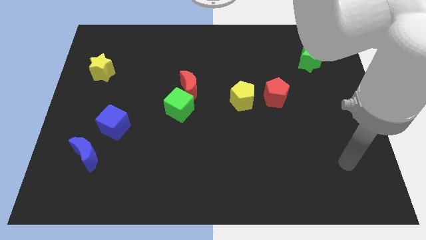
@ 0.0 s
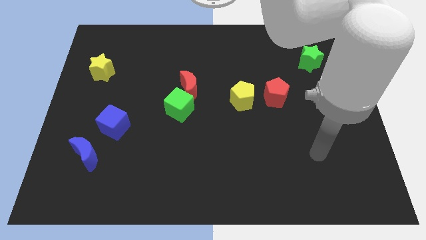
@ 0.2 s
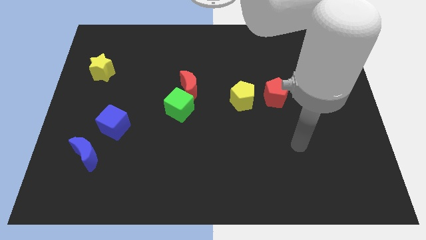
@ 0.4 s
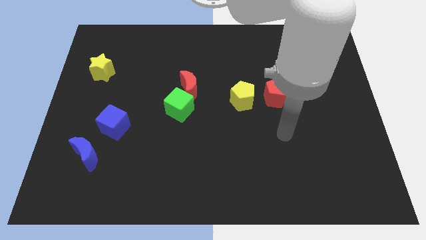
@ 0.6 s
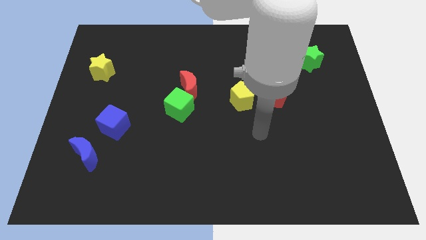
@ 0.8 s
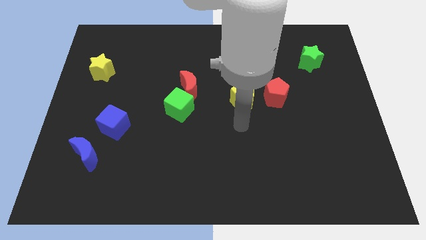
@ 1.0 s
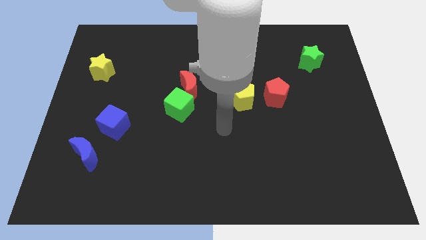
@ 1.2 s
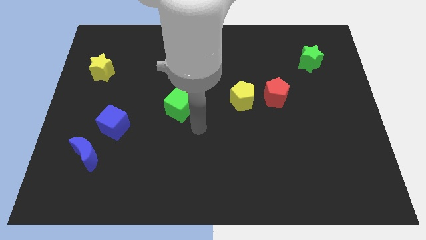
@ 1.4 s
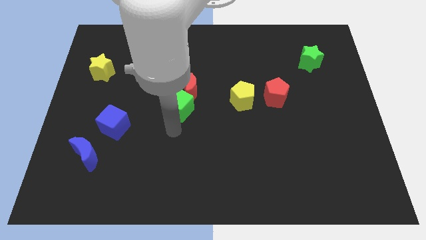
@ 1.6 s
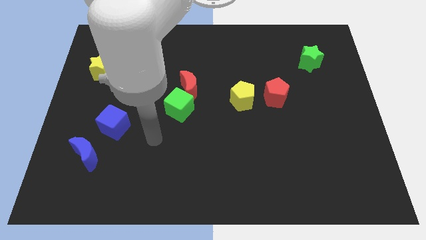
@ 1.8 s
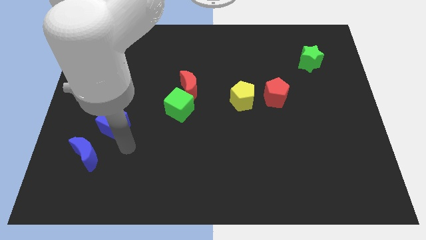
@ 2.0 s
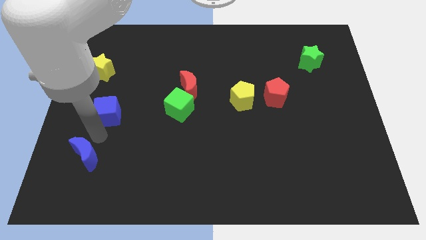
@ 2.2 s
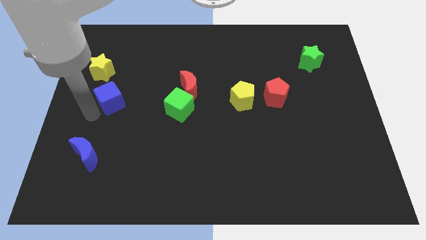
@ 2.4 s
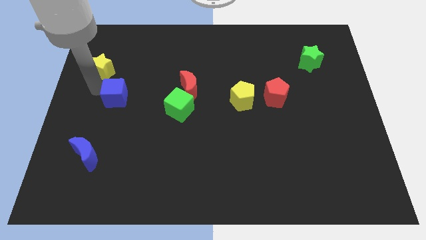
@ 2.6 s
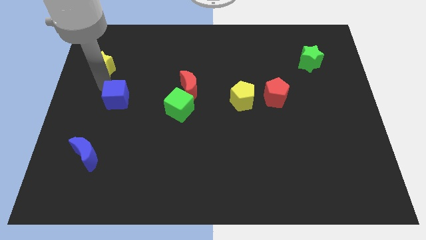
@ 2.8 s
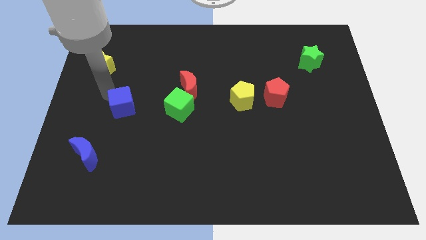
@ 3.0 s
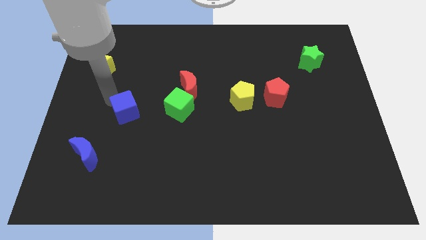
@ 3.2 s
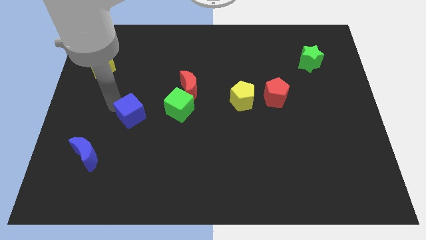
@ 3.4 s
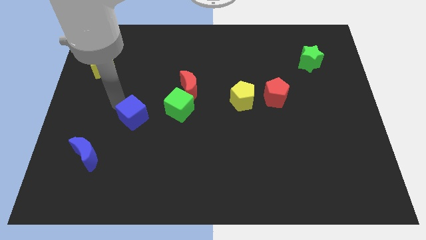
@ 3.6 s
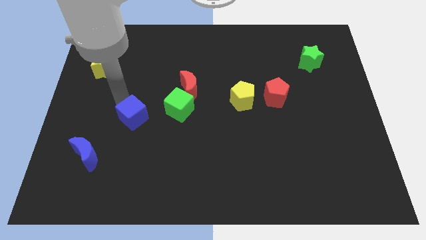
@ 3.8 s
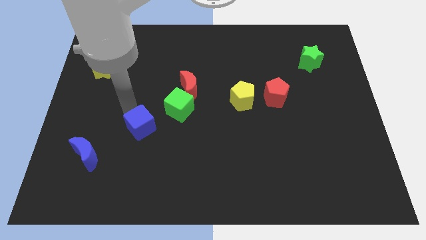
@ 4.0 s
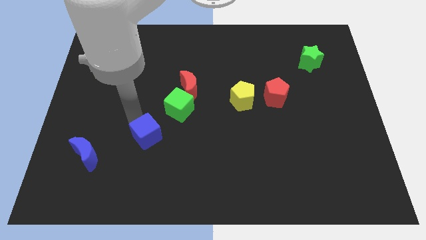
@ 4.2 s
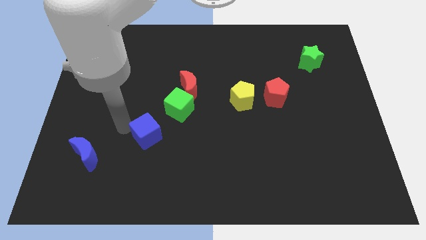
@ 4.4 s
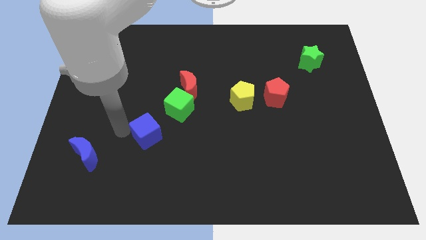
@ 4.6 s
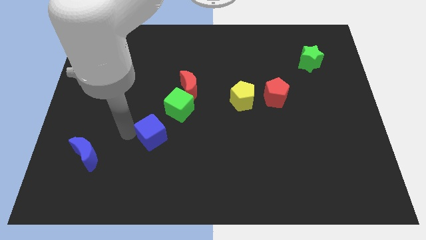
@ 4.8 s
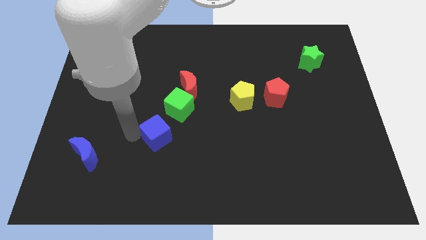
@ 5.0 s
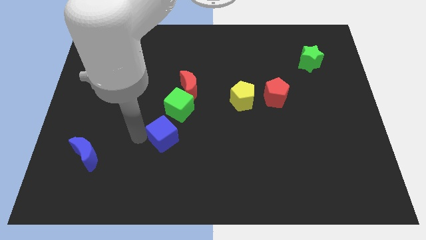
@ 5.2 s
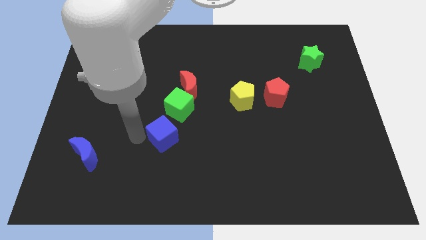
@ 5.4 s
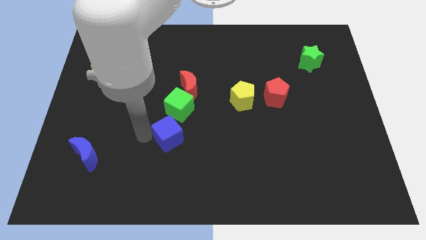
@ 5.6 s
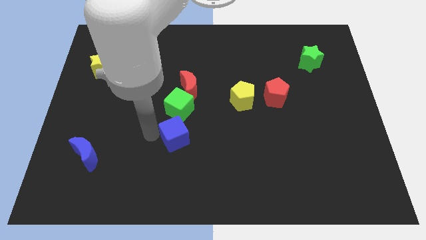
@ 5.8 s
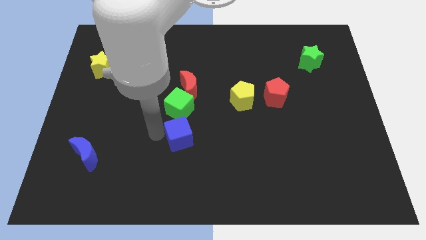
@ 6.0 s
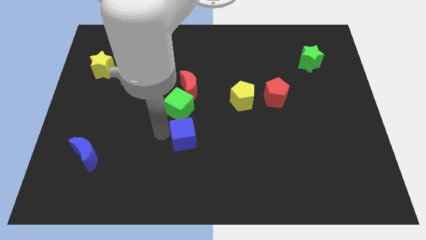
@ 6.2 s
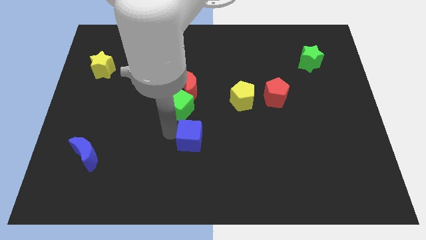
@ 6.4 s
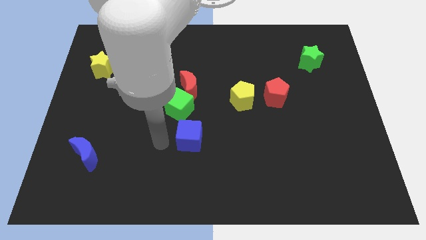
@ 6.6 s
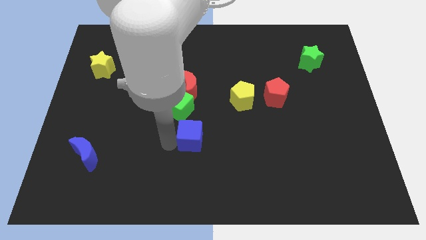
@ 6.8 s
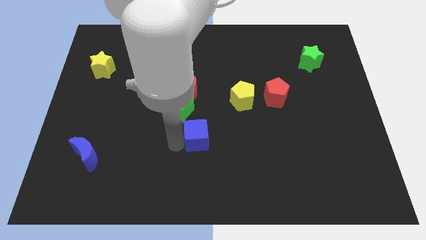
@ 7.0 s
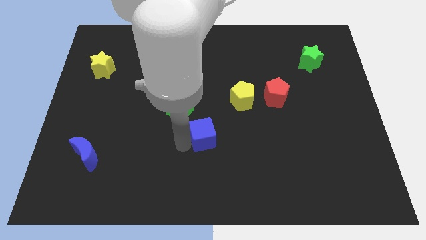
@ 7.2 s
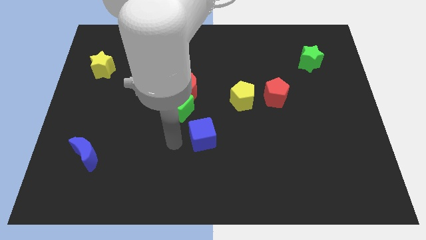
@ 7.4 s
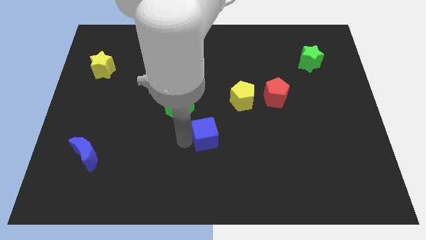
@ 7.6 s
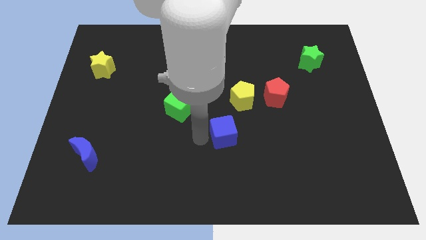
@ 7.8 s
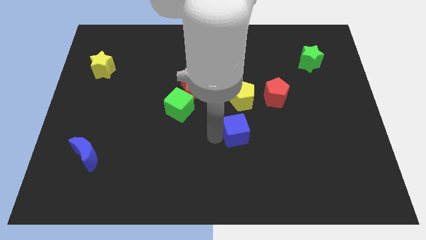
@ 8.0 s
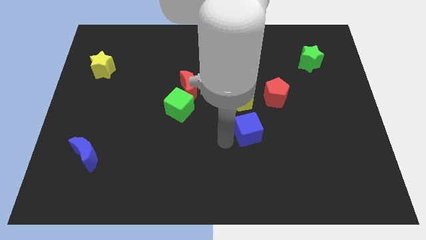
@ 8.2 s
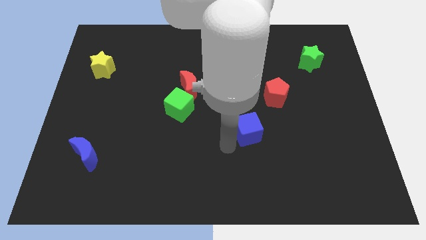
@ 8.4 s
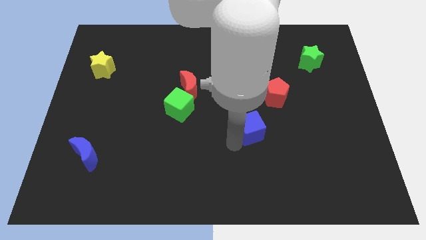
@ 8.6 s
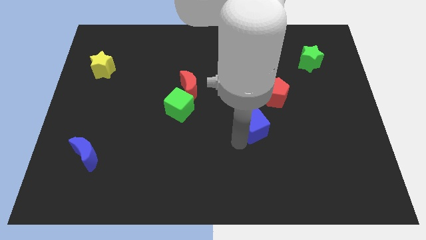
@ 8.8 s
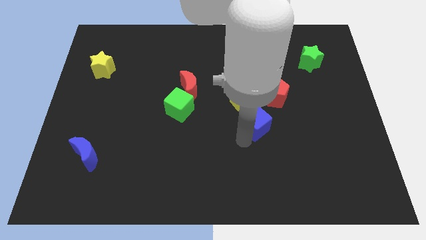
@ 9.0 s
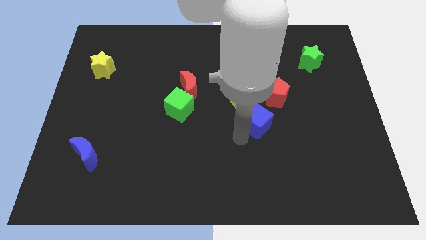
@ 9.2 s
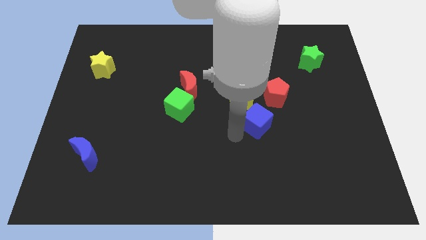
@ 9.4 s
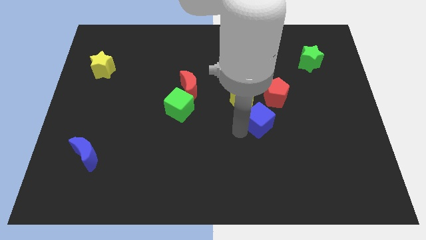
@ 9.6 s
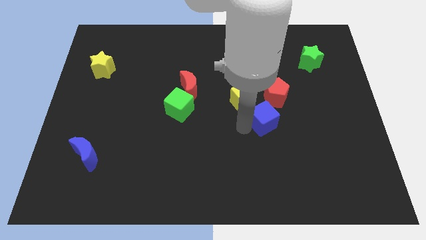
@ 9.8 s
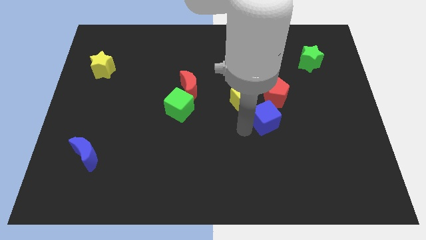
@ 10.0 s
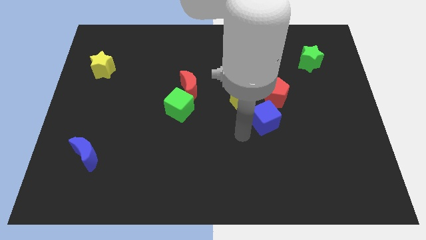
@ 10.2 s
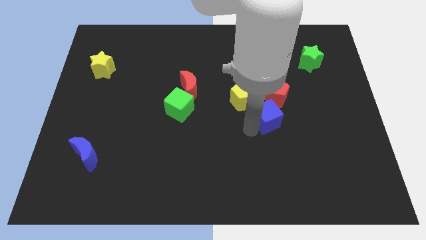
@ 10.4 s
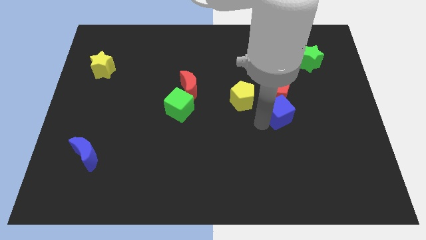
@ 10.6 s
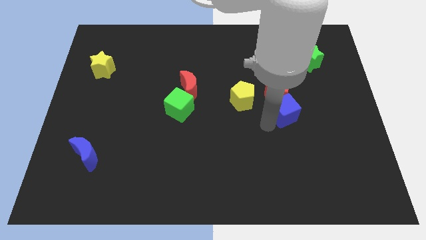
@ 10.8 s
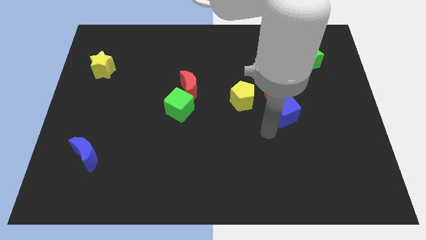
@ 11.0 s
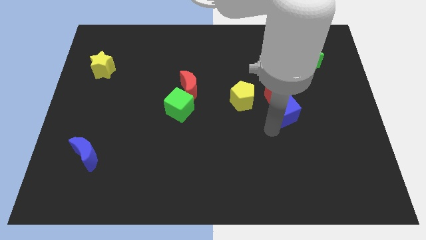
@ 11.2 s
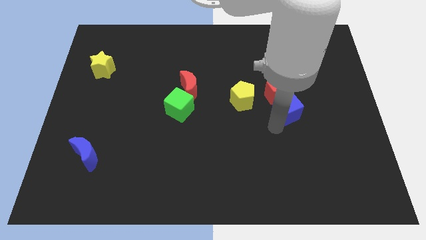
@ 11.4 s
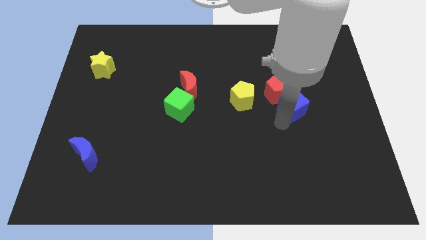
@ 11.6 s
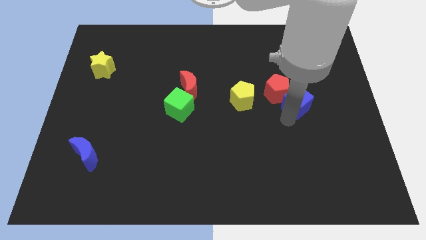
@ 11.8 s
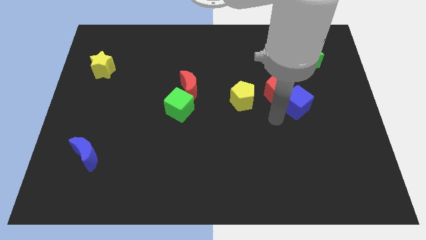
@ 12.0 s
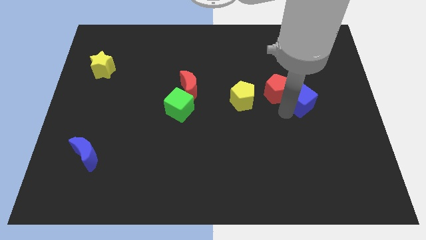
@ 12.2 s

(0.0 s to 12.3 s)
put the blue cube to the bottom of the green star

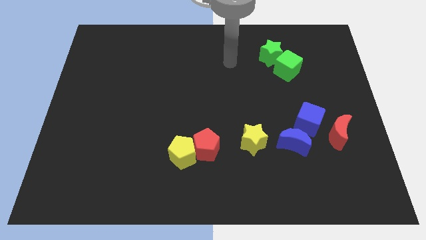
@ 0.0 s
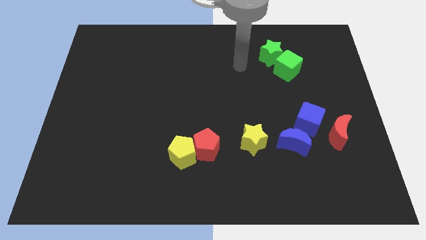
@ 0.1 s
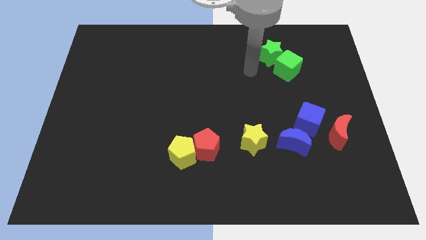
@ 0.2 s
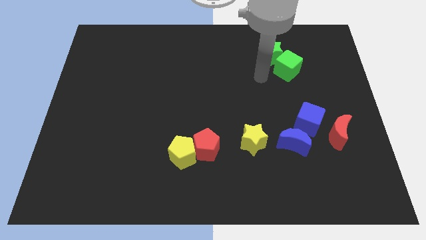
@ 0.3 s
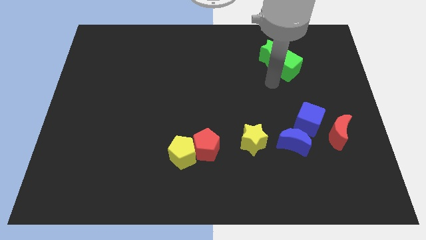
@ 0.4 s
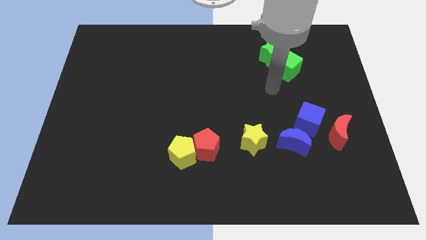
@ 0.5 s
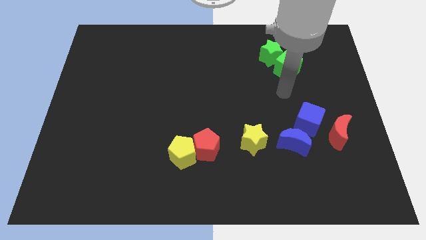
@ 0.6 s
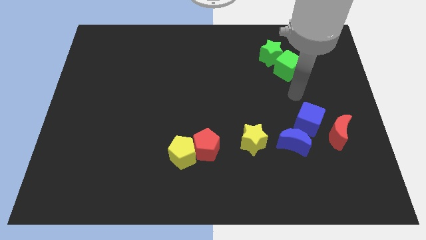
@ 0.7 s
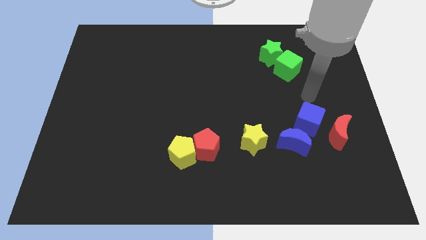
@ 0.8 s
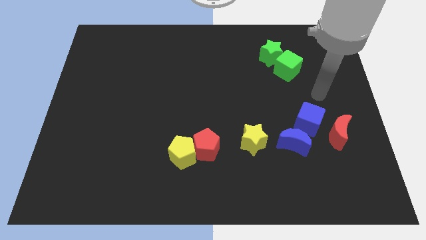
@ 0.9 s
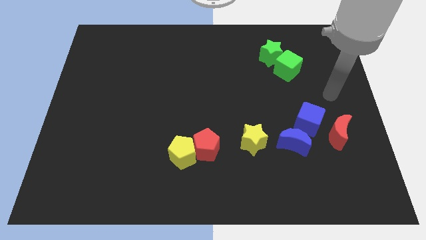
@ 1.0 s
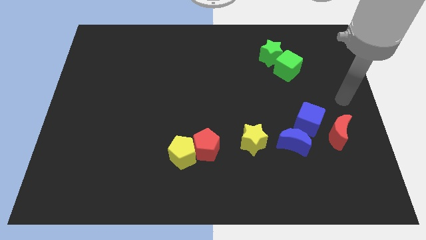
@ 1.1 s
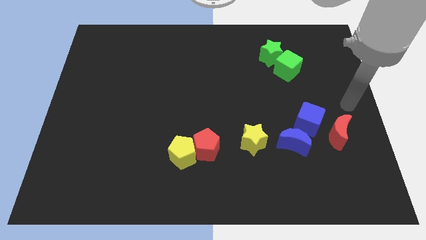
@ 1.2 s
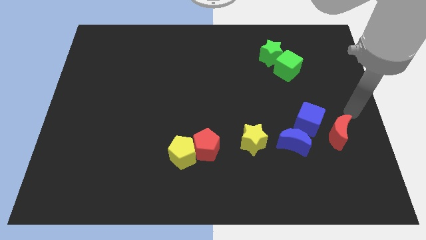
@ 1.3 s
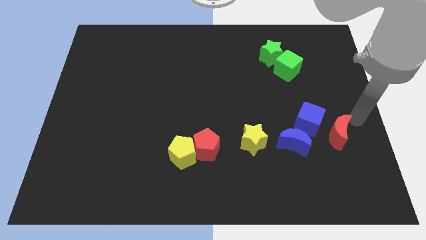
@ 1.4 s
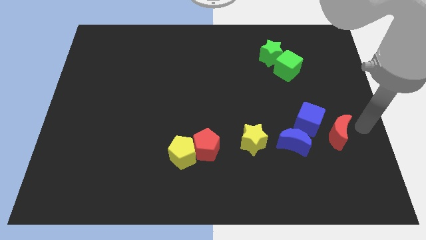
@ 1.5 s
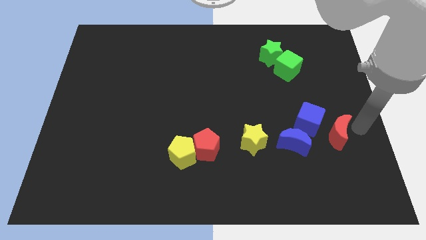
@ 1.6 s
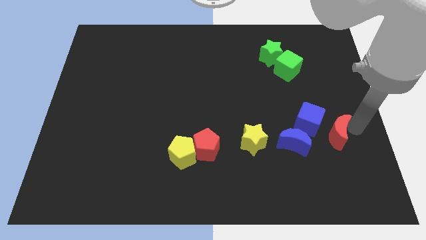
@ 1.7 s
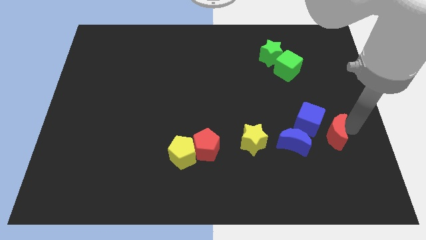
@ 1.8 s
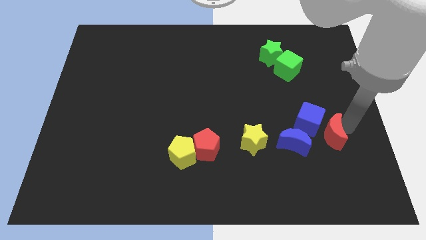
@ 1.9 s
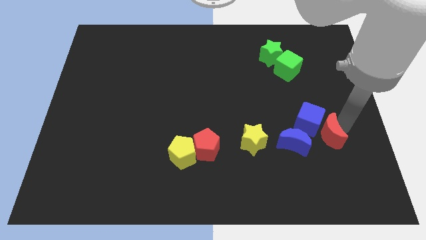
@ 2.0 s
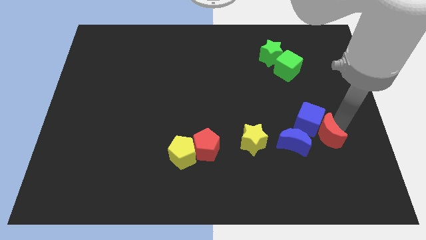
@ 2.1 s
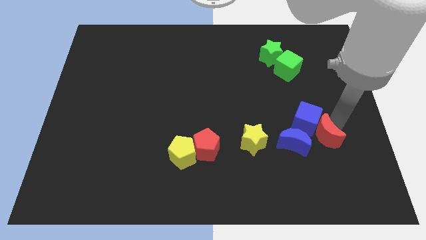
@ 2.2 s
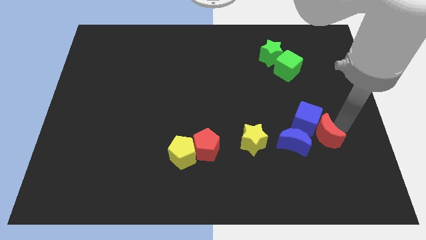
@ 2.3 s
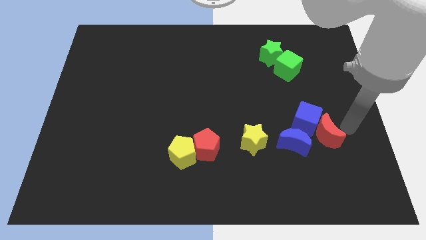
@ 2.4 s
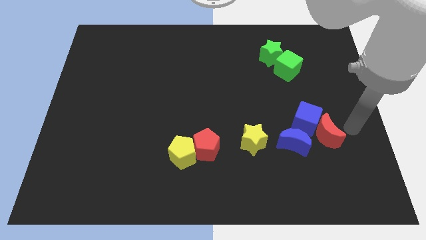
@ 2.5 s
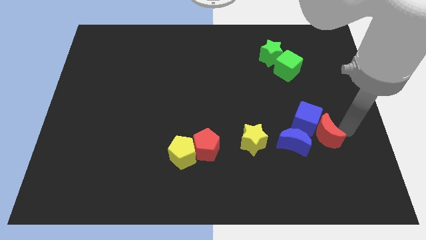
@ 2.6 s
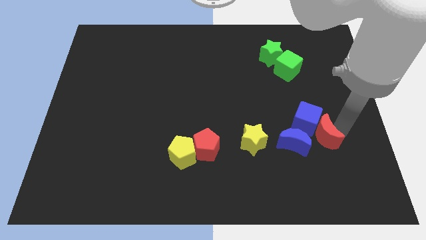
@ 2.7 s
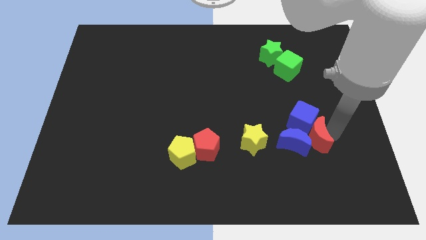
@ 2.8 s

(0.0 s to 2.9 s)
push the red moon to the right side of the yellow star
